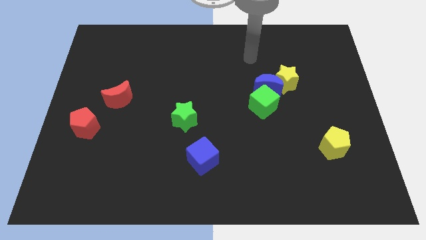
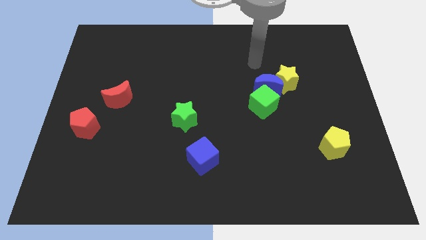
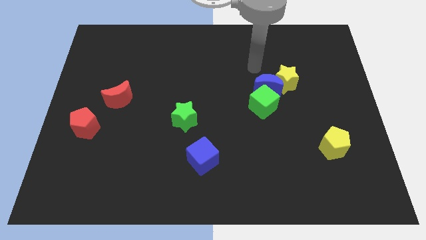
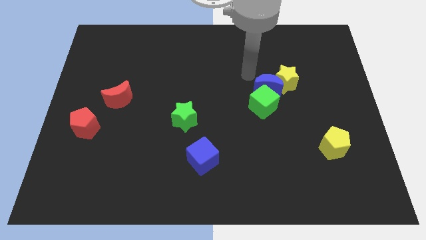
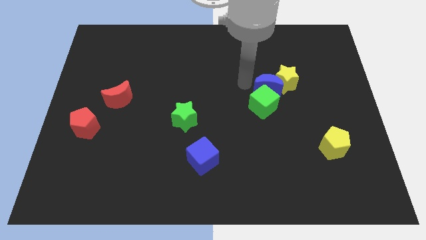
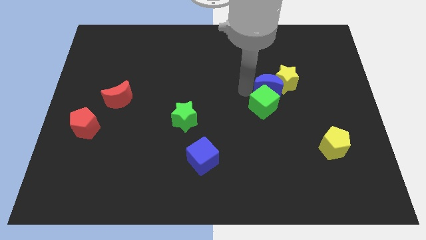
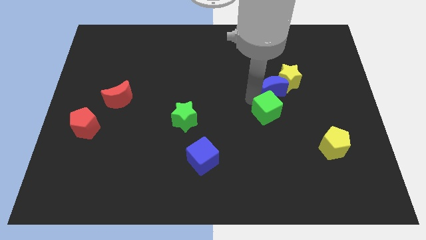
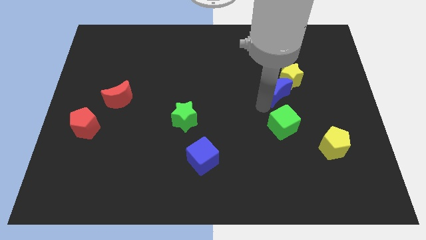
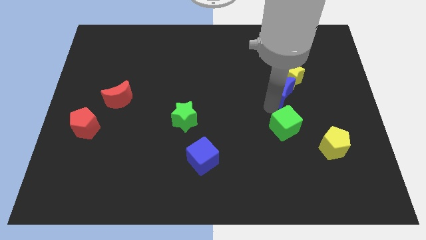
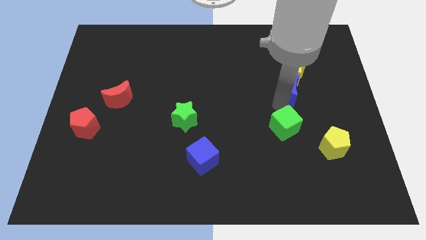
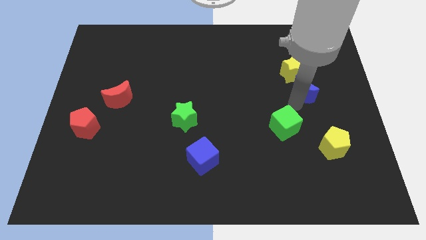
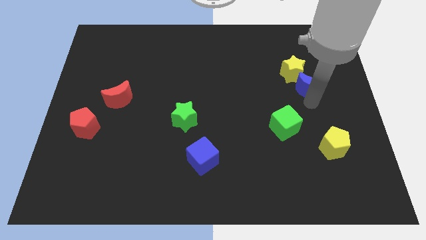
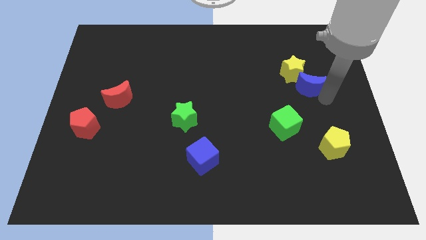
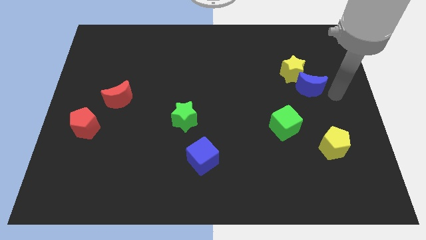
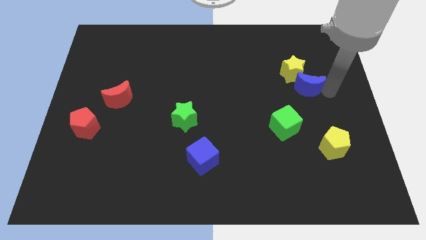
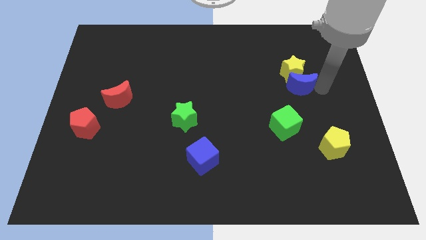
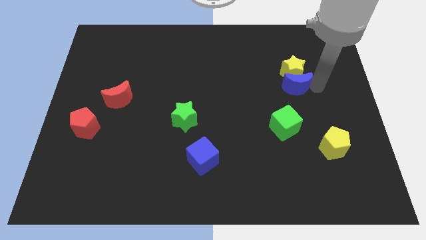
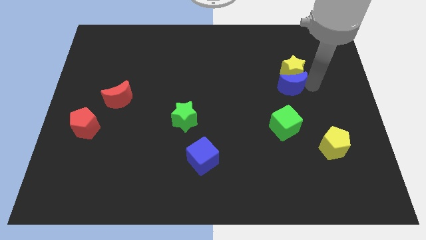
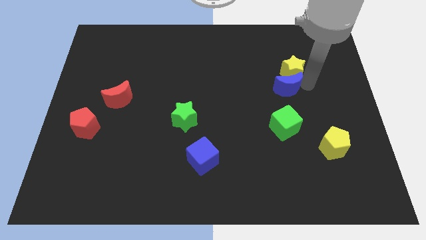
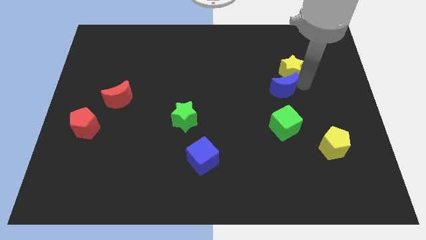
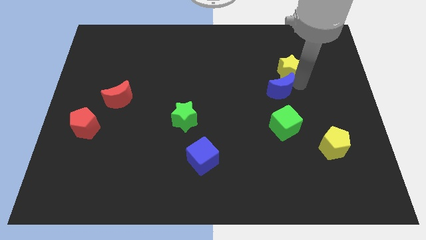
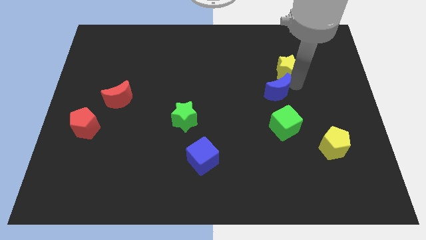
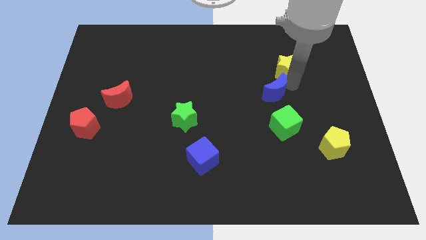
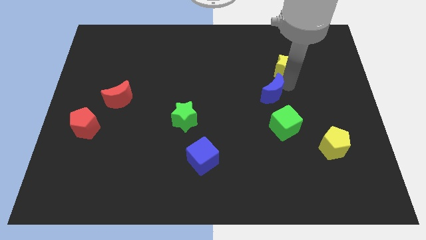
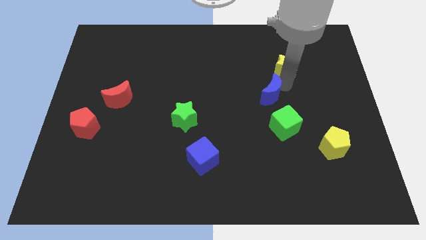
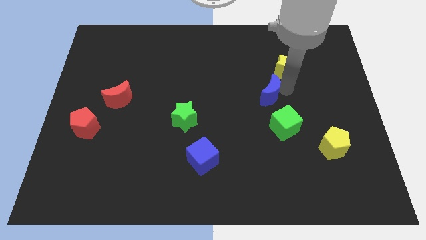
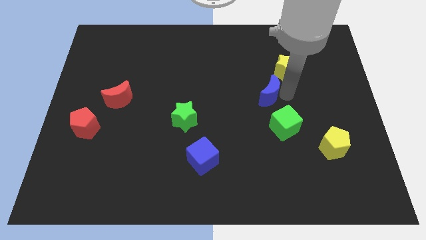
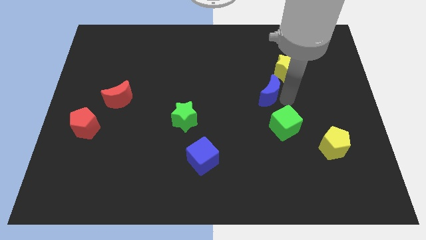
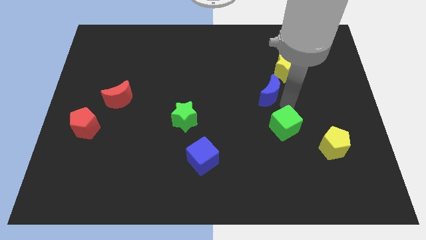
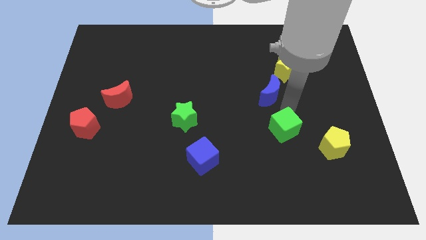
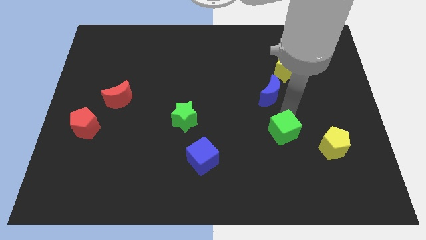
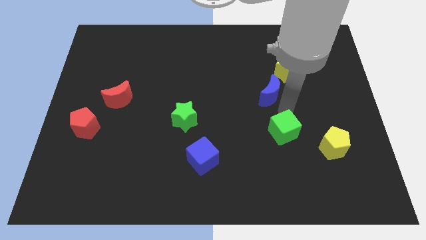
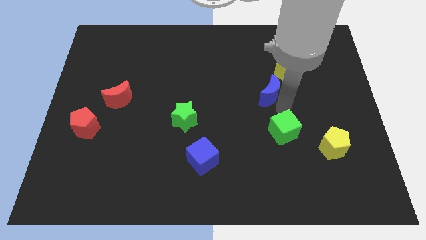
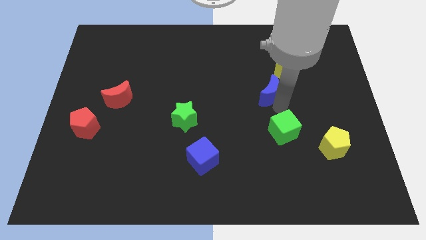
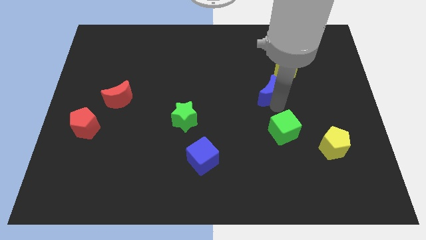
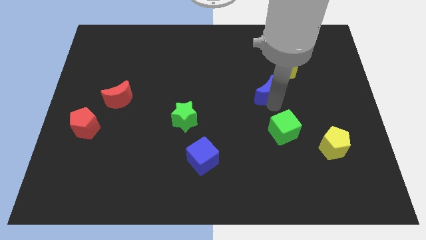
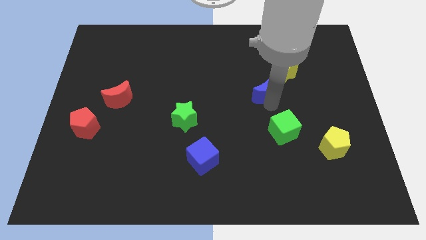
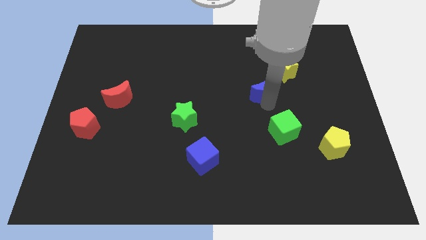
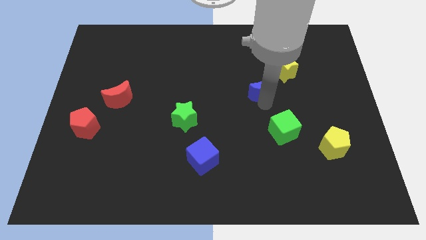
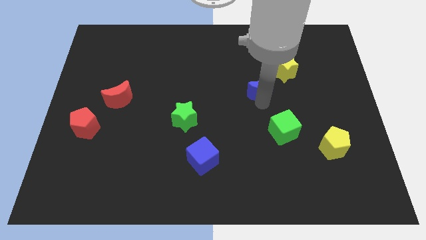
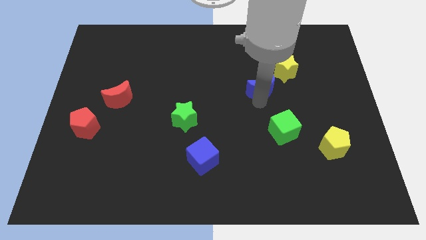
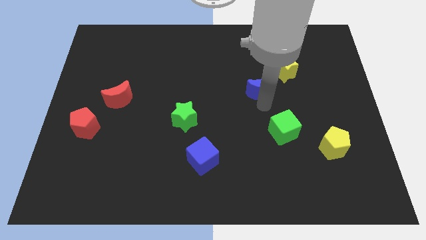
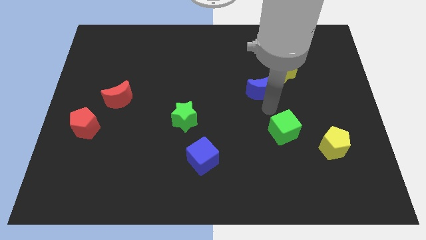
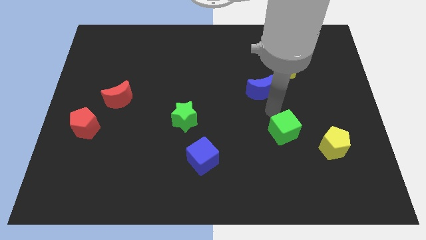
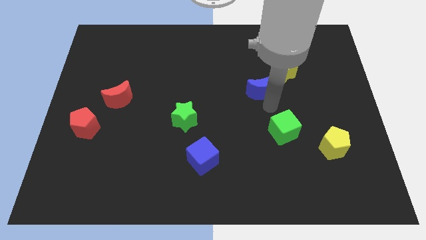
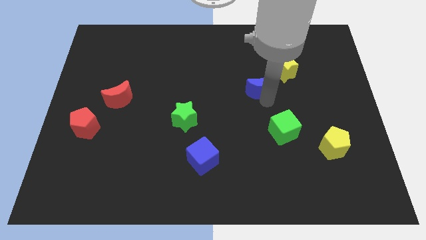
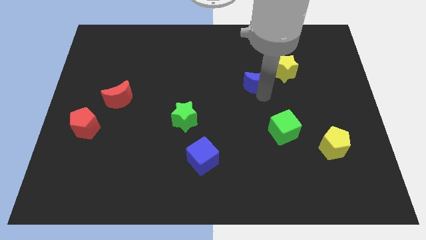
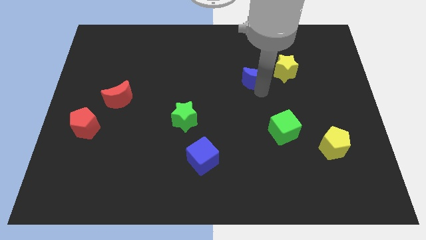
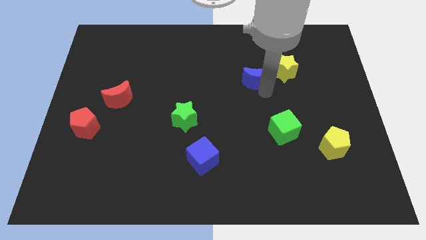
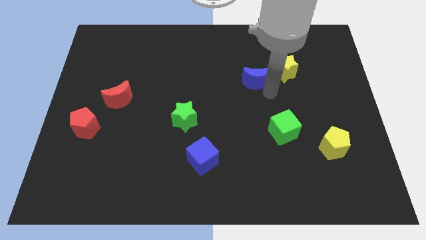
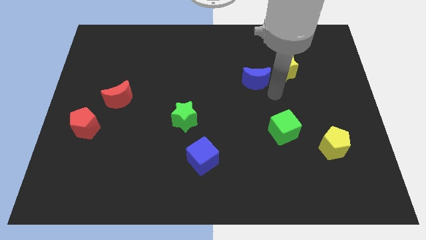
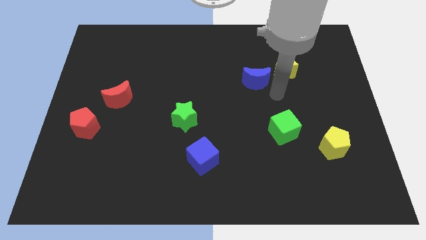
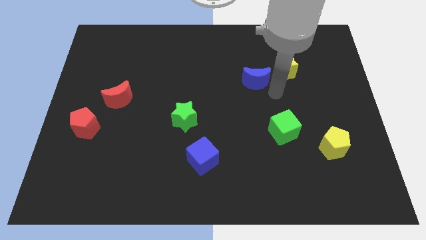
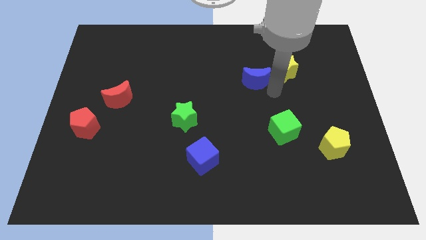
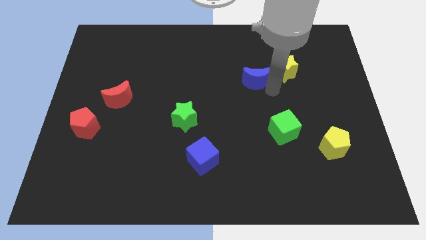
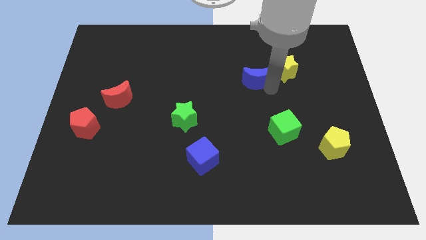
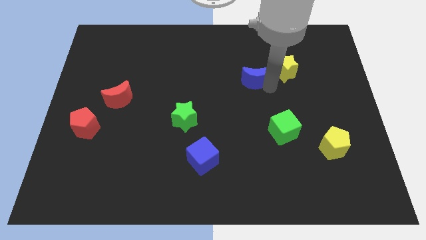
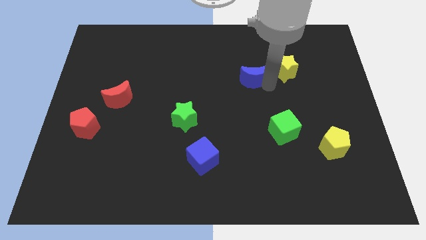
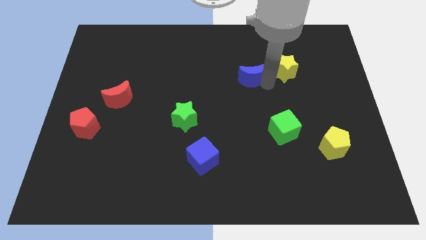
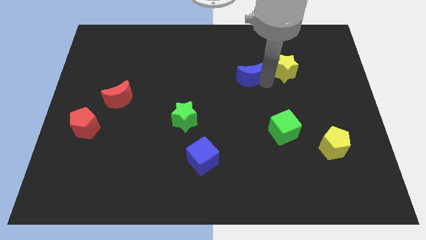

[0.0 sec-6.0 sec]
pull the blue moon apart from the yellow star and green cube

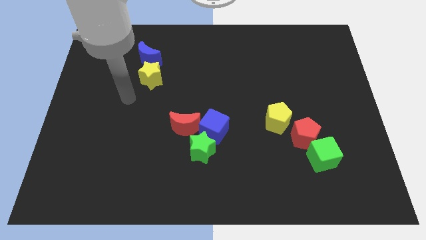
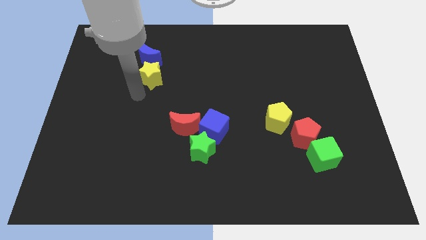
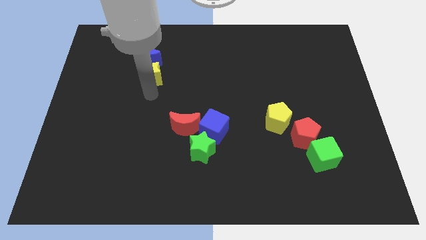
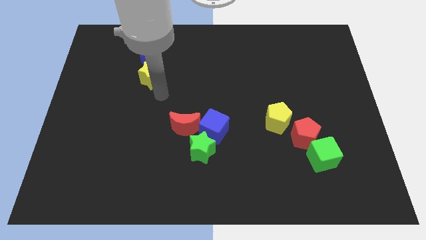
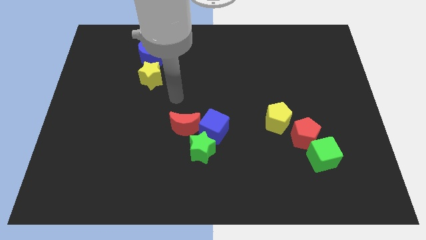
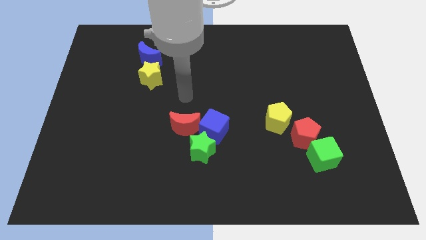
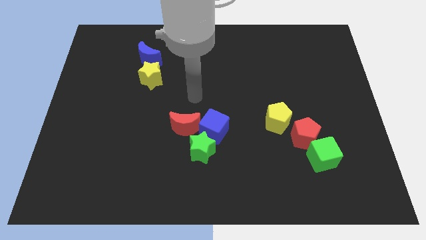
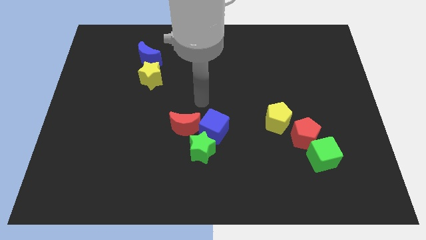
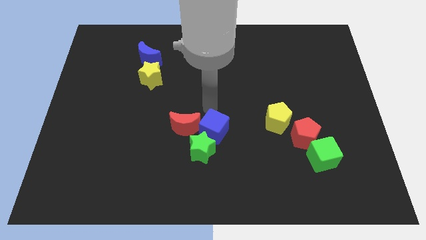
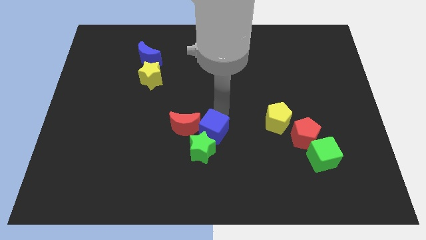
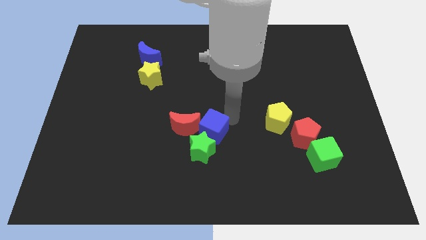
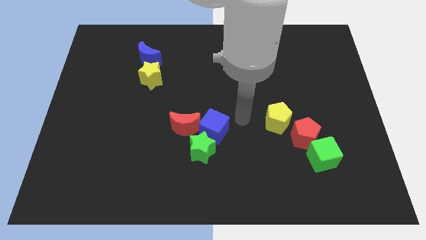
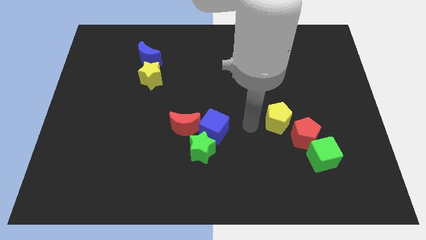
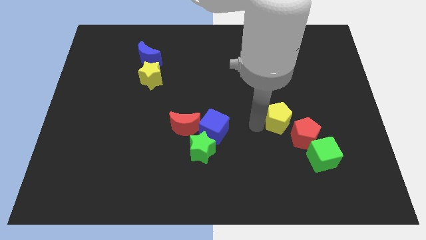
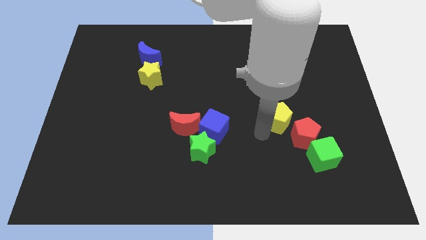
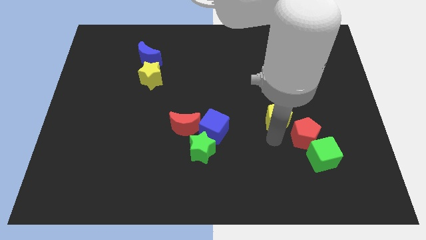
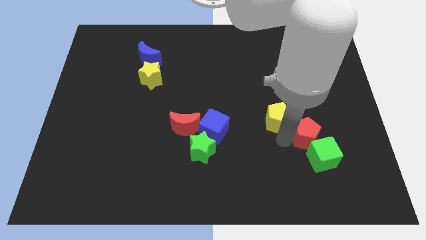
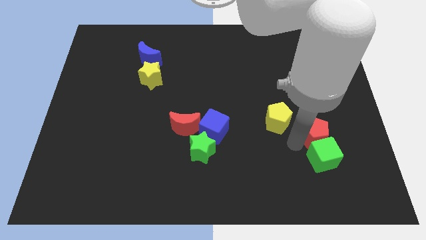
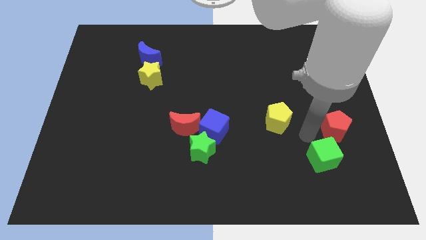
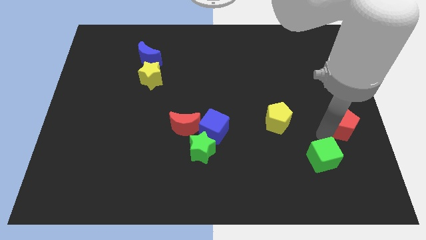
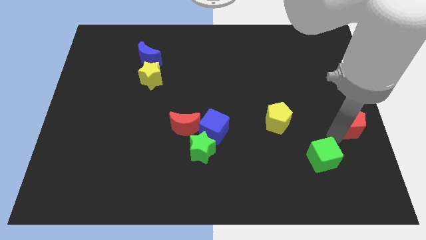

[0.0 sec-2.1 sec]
pull the green cube apart from the red pentagon

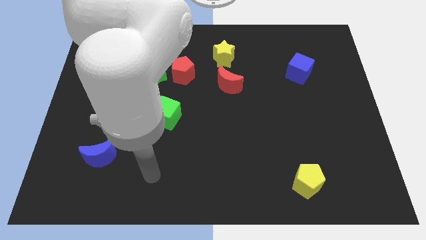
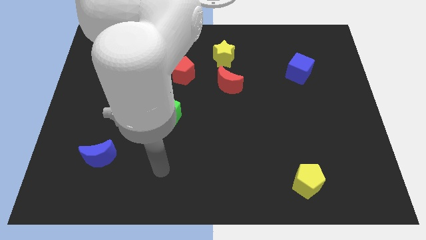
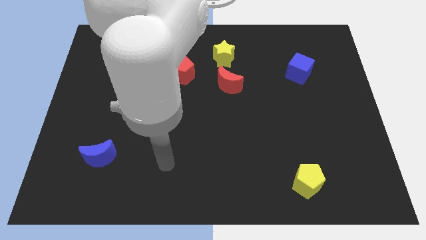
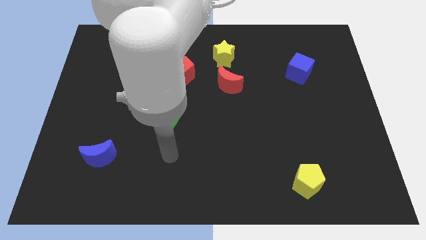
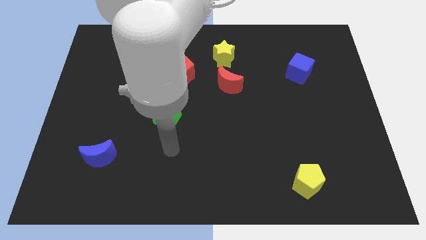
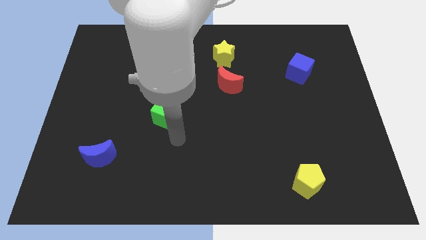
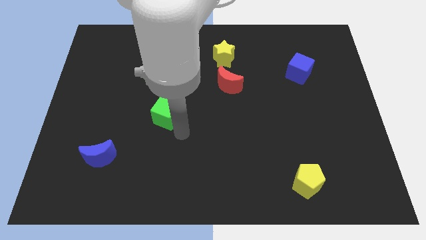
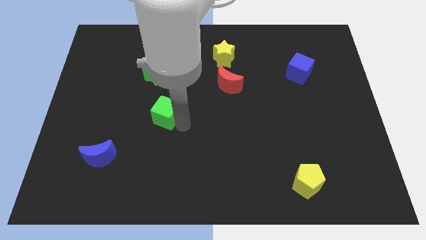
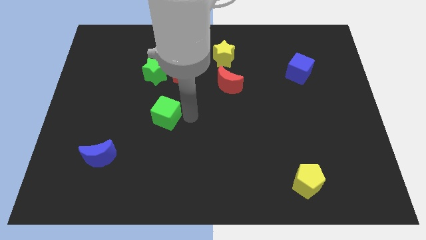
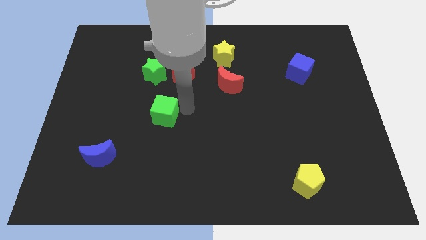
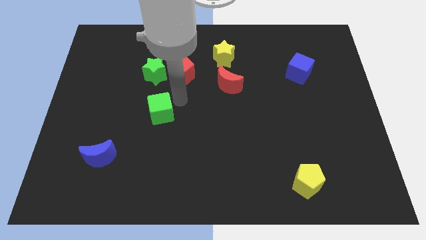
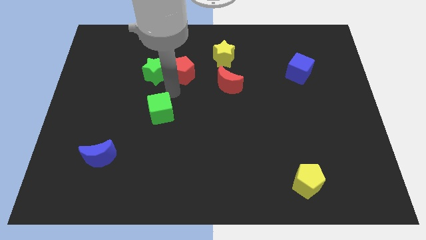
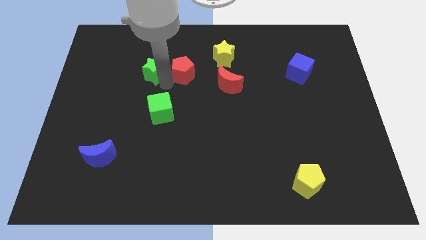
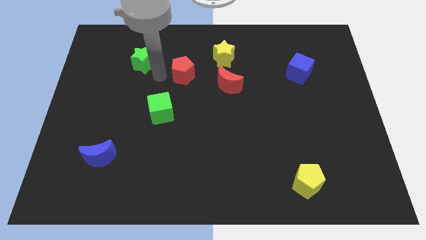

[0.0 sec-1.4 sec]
separate the red pentagon from the green star
